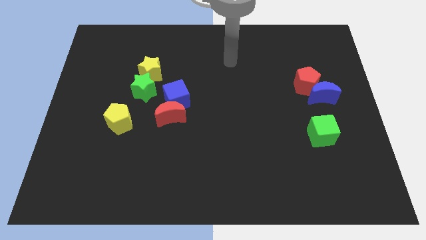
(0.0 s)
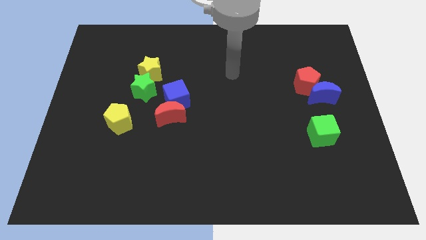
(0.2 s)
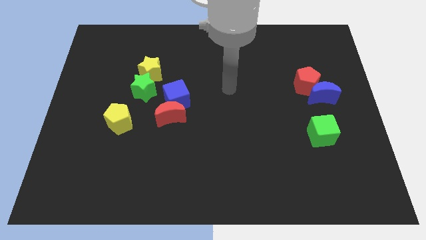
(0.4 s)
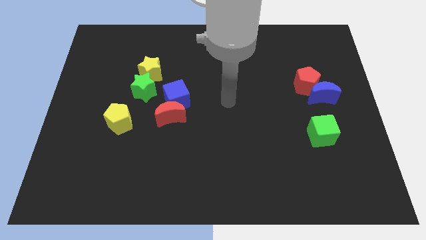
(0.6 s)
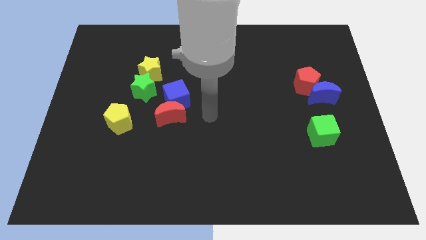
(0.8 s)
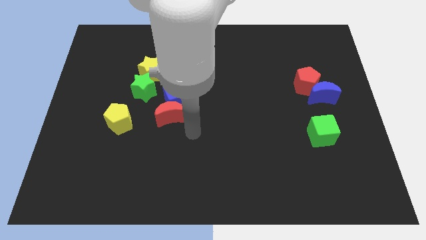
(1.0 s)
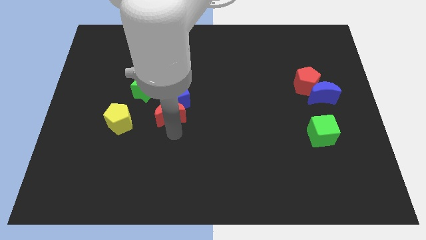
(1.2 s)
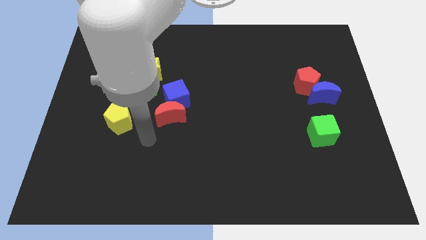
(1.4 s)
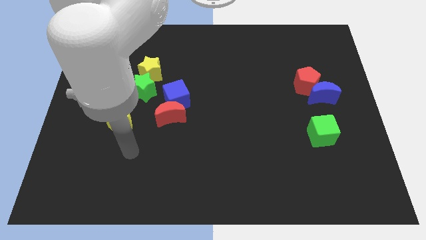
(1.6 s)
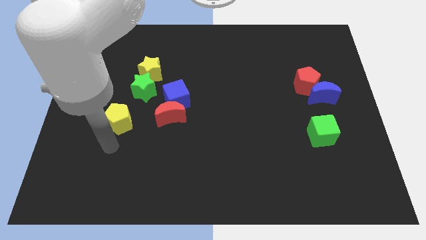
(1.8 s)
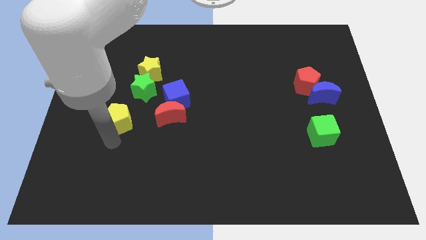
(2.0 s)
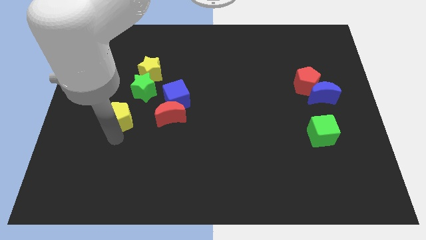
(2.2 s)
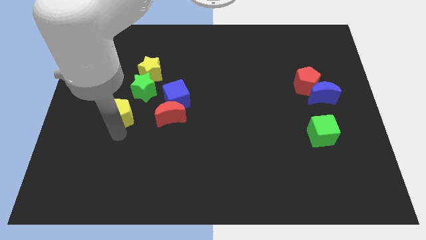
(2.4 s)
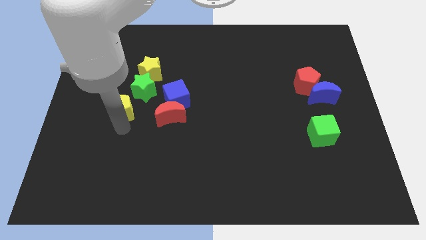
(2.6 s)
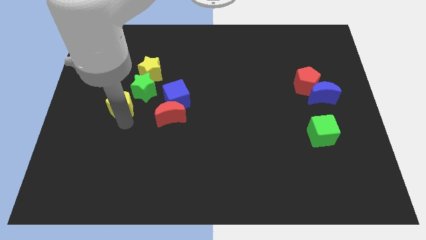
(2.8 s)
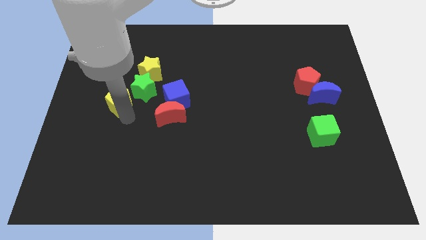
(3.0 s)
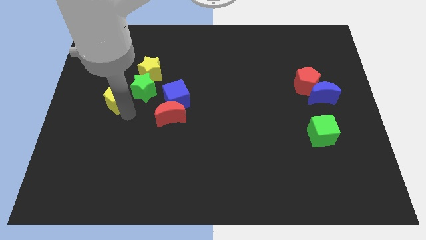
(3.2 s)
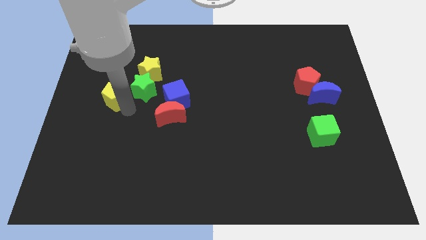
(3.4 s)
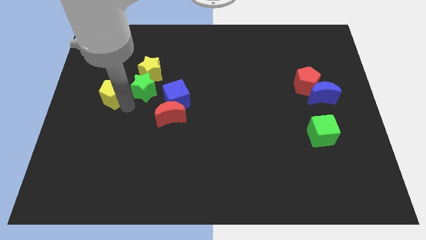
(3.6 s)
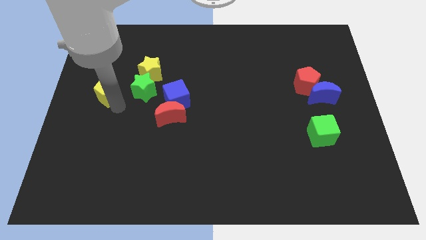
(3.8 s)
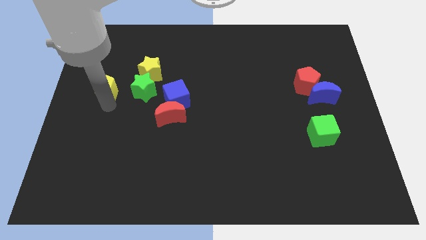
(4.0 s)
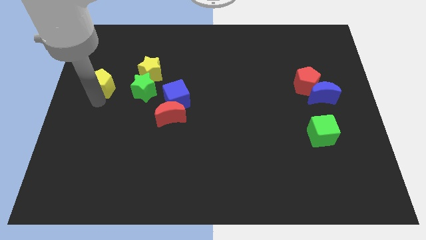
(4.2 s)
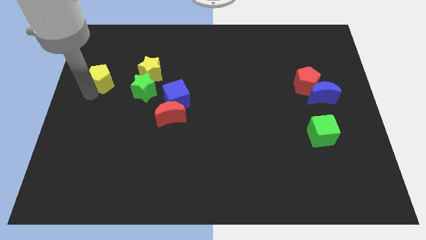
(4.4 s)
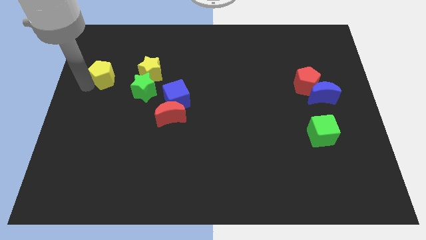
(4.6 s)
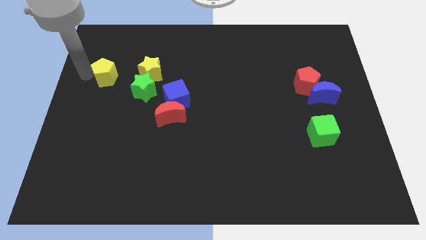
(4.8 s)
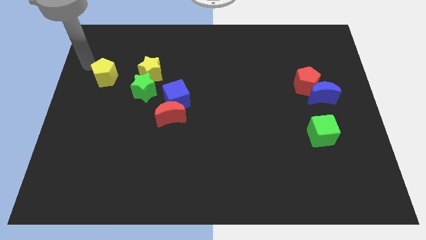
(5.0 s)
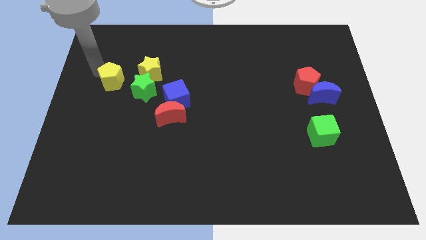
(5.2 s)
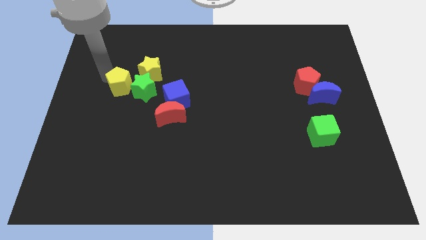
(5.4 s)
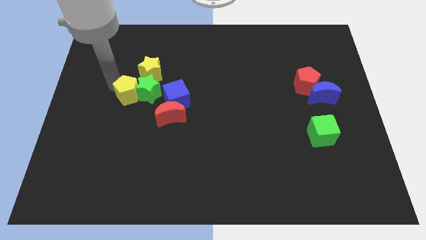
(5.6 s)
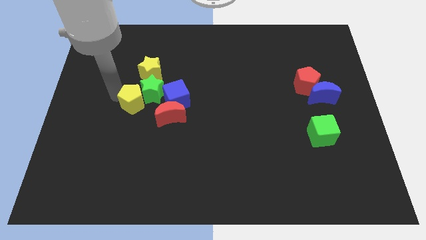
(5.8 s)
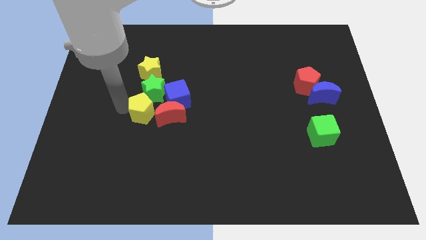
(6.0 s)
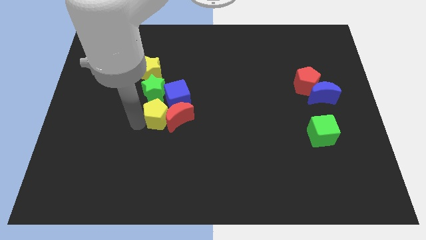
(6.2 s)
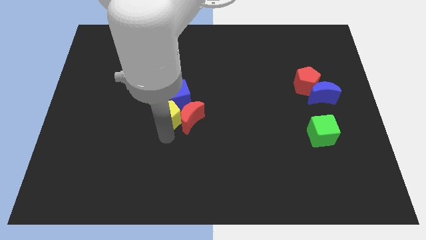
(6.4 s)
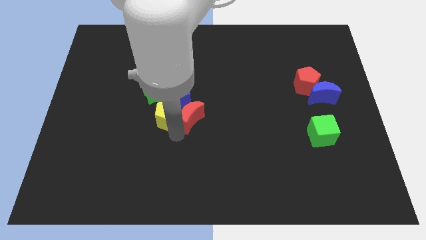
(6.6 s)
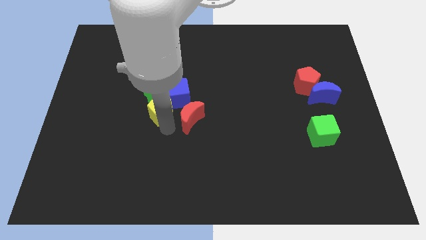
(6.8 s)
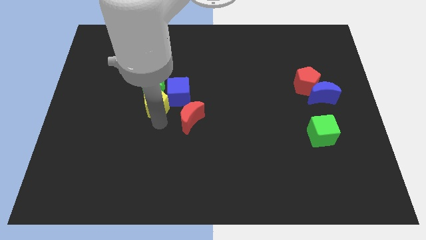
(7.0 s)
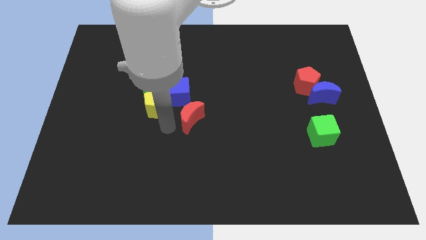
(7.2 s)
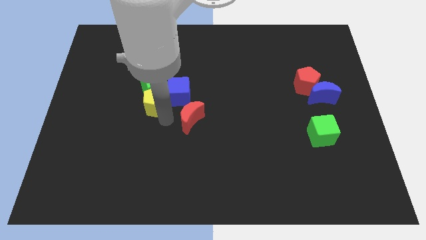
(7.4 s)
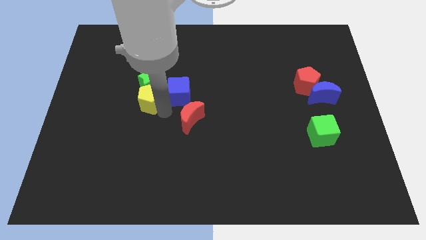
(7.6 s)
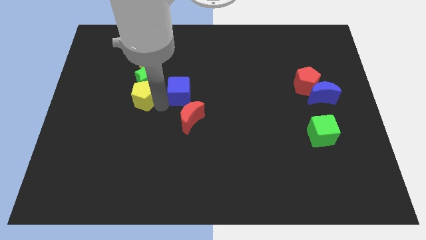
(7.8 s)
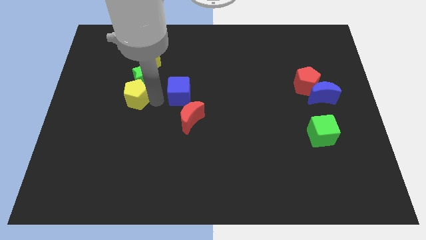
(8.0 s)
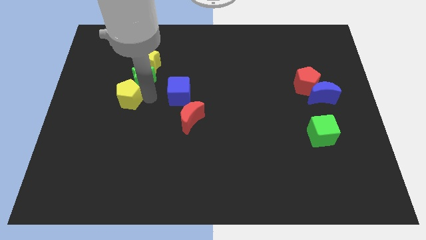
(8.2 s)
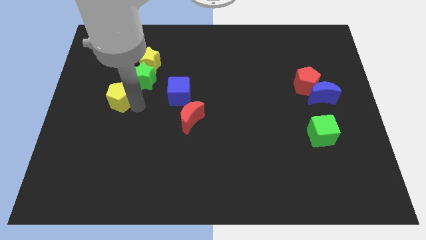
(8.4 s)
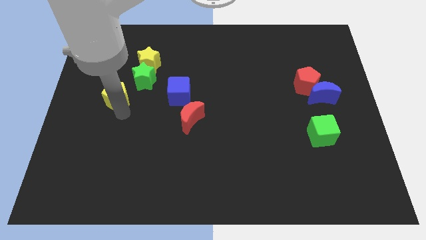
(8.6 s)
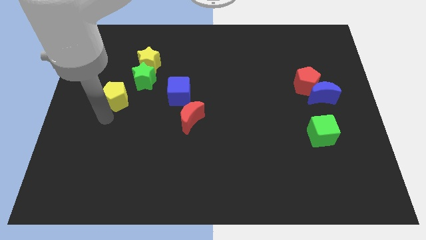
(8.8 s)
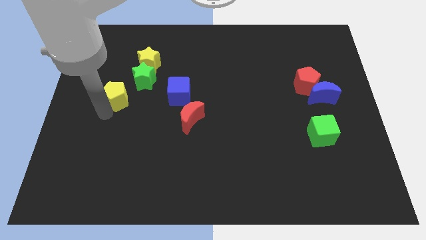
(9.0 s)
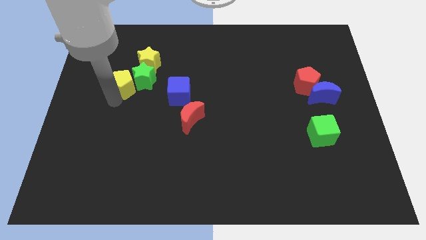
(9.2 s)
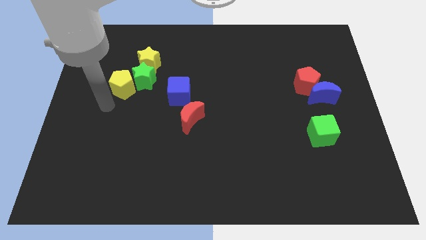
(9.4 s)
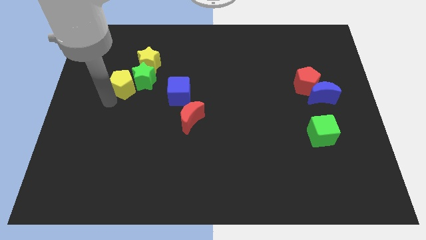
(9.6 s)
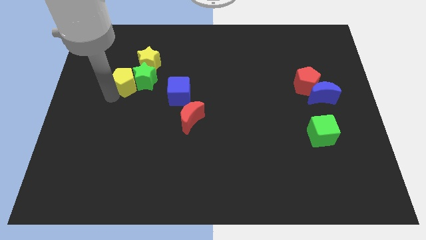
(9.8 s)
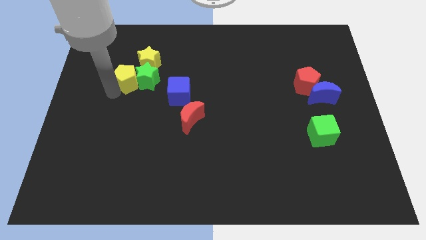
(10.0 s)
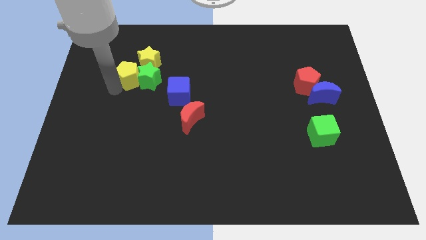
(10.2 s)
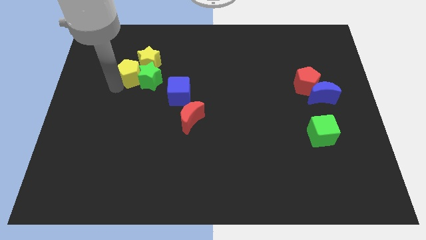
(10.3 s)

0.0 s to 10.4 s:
push the yellow pentagon to the yellow star

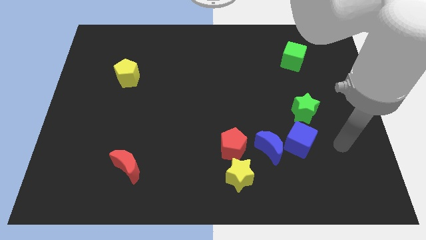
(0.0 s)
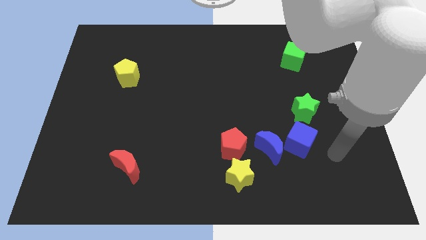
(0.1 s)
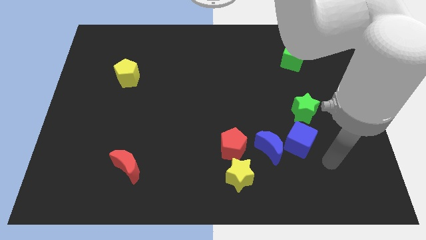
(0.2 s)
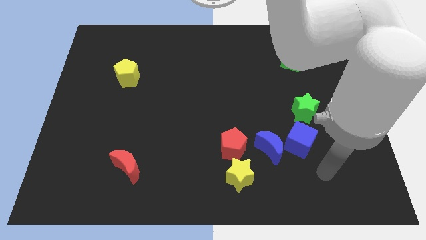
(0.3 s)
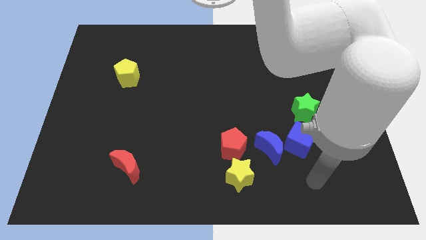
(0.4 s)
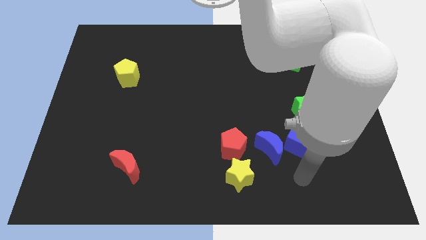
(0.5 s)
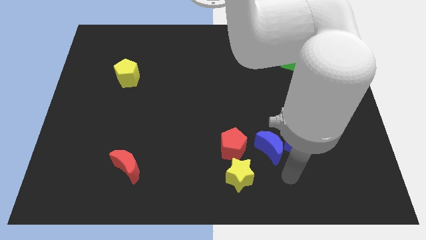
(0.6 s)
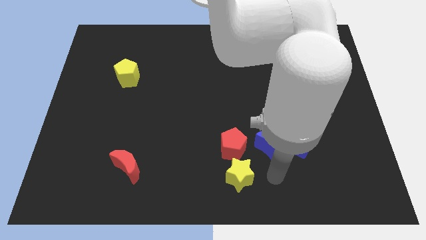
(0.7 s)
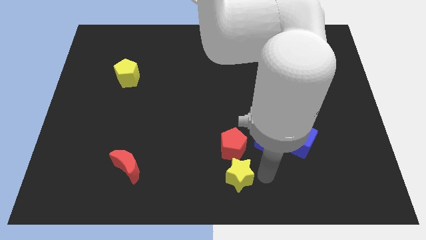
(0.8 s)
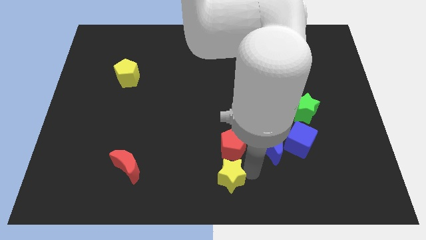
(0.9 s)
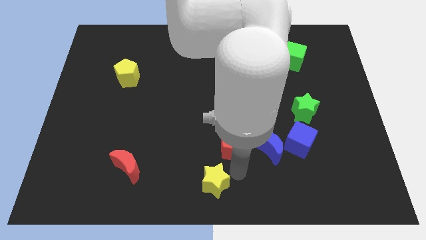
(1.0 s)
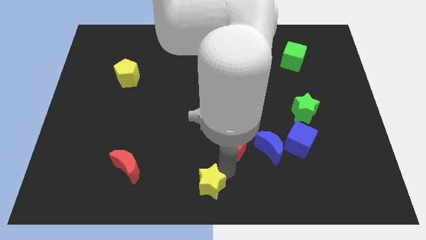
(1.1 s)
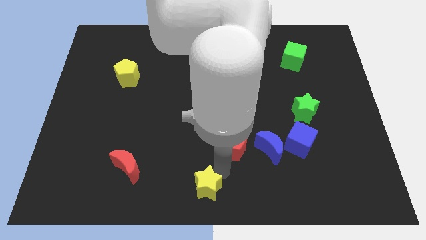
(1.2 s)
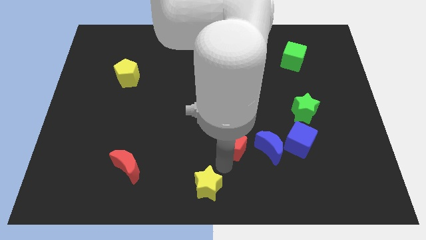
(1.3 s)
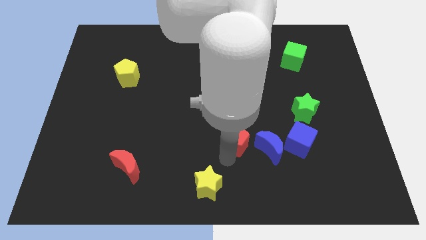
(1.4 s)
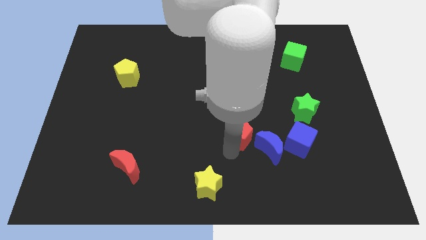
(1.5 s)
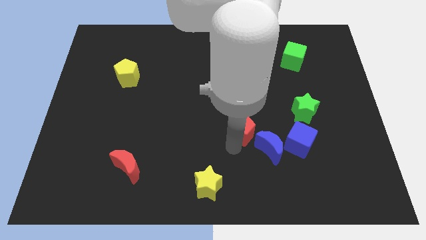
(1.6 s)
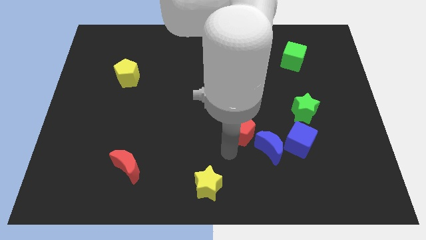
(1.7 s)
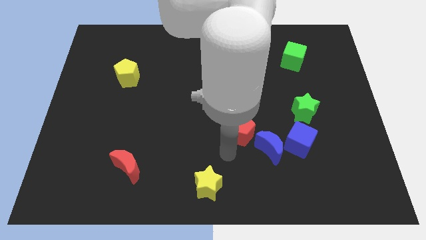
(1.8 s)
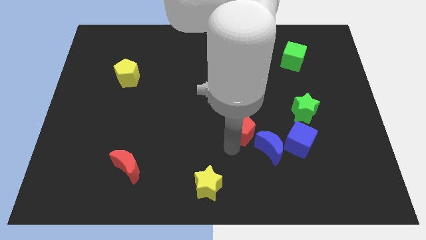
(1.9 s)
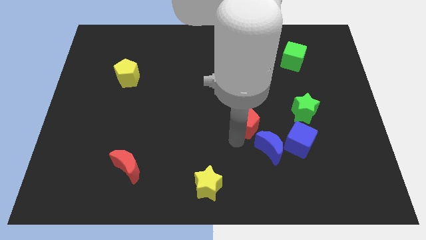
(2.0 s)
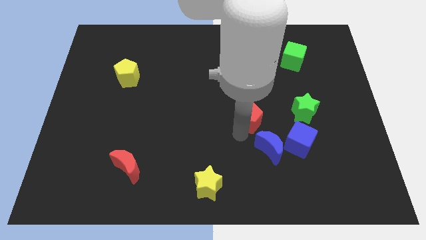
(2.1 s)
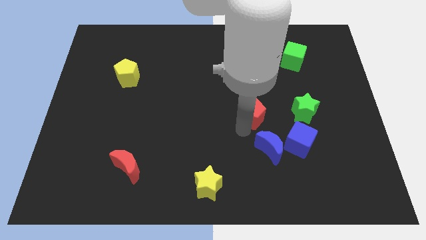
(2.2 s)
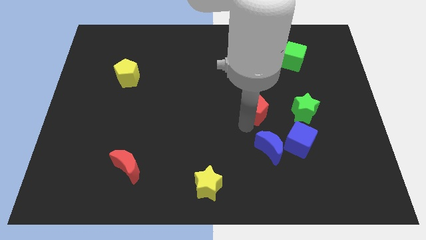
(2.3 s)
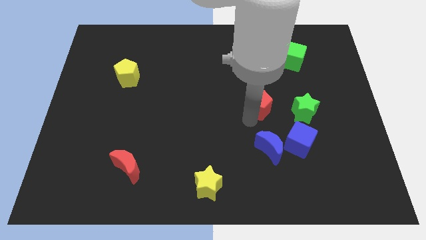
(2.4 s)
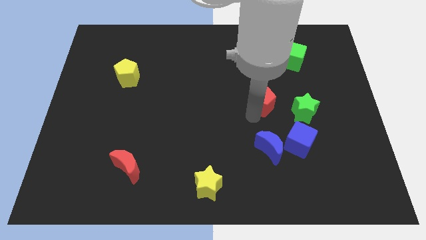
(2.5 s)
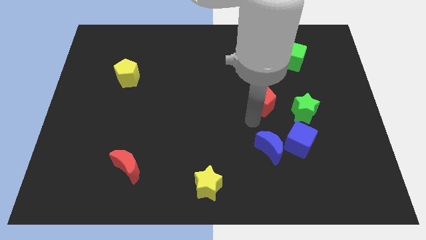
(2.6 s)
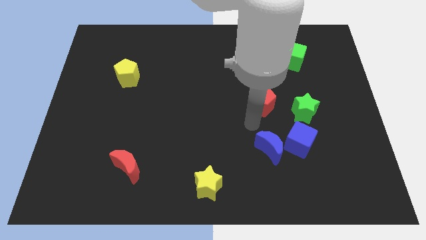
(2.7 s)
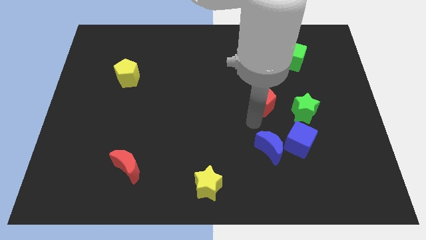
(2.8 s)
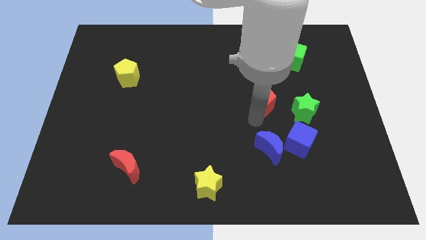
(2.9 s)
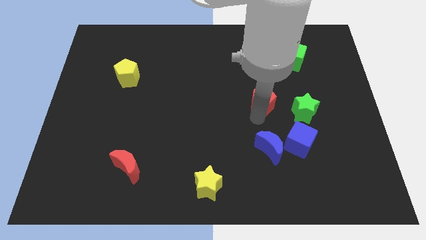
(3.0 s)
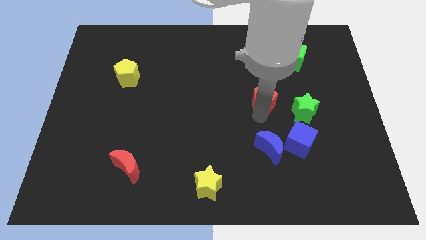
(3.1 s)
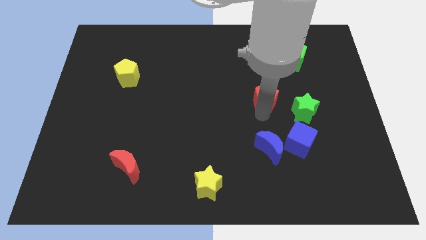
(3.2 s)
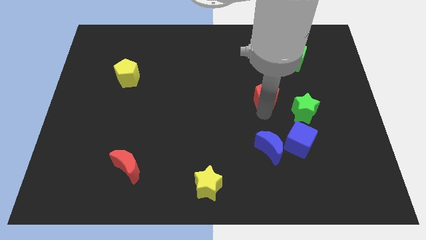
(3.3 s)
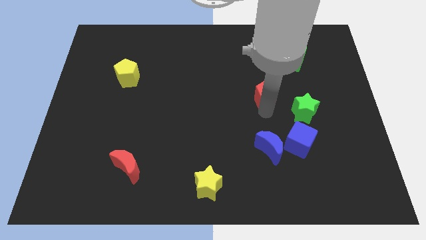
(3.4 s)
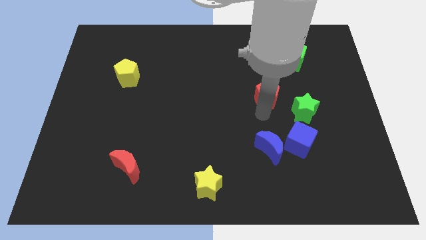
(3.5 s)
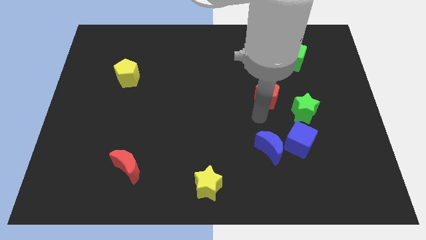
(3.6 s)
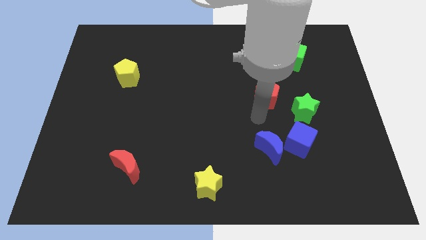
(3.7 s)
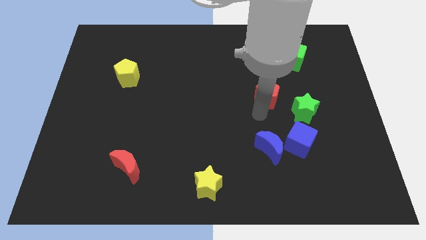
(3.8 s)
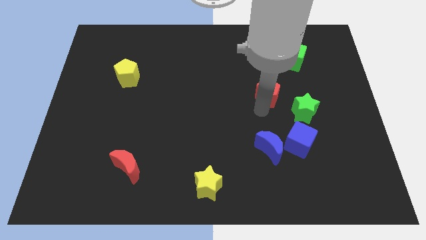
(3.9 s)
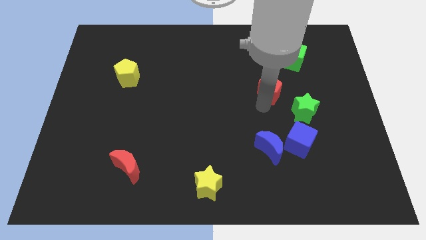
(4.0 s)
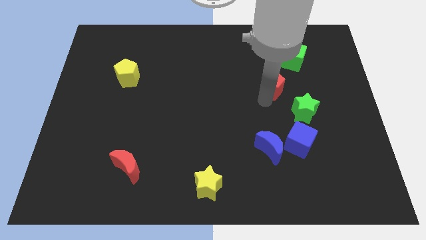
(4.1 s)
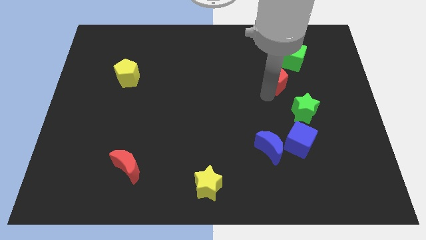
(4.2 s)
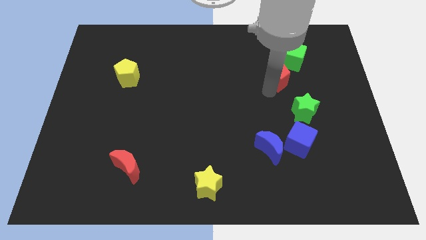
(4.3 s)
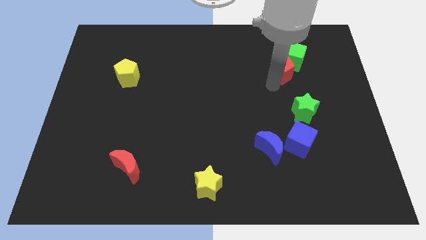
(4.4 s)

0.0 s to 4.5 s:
put the red pentagon to the green cube
